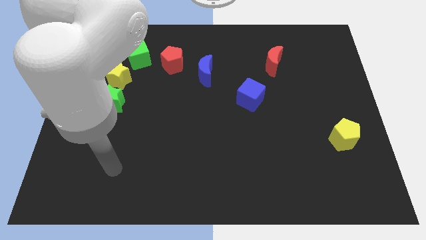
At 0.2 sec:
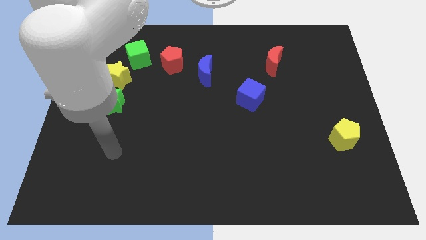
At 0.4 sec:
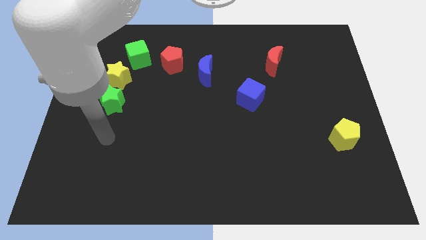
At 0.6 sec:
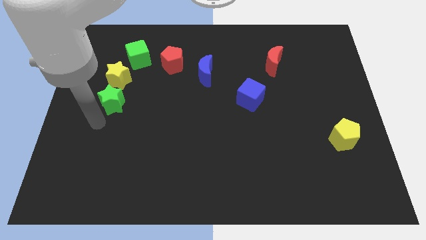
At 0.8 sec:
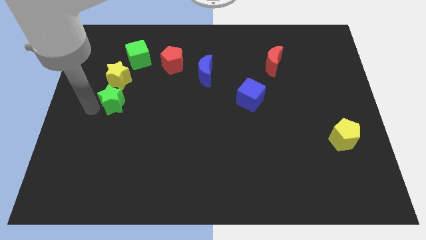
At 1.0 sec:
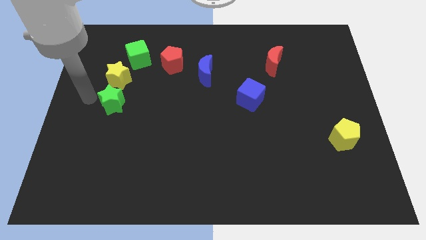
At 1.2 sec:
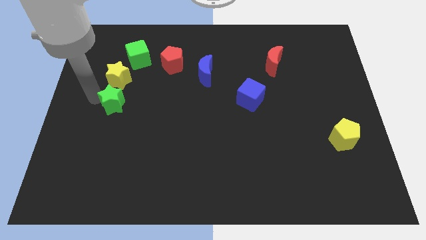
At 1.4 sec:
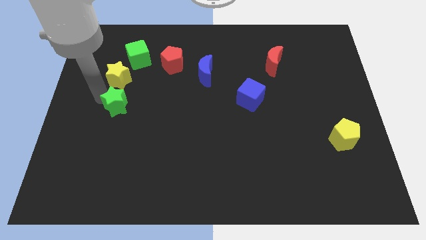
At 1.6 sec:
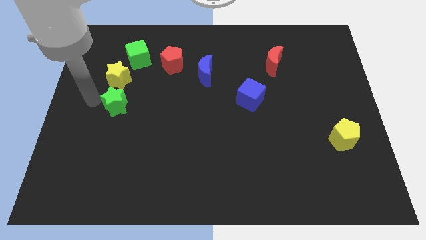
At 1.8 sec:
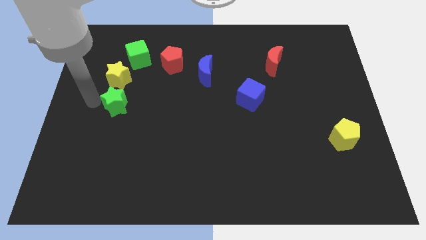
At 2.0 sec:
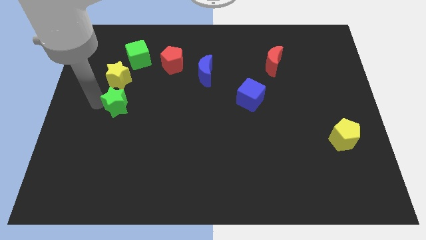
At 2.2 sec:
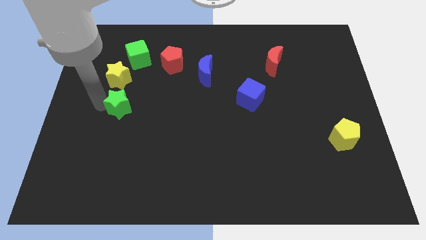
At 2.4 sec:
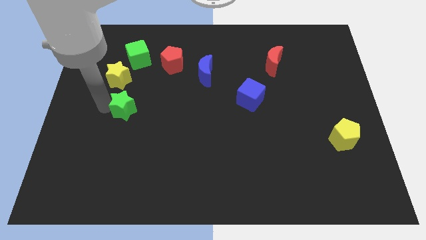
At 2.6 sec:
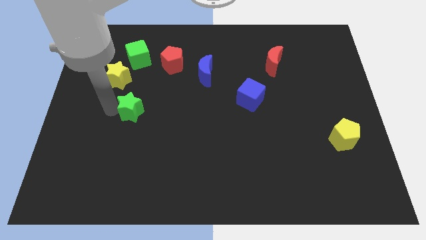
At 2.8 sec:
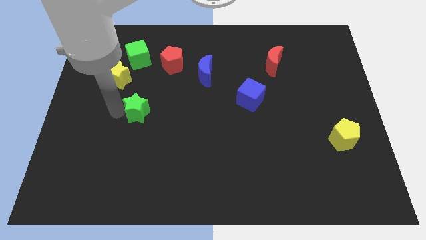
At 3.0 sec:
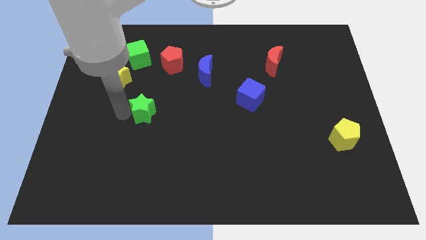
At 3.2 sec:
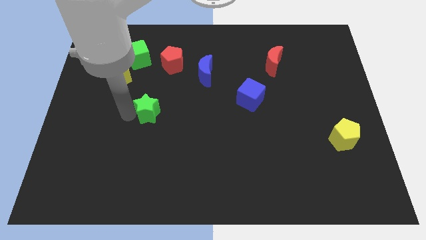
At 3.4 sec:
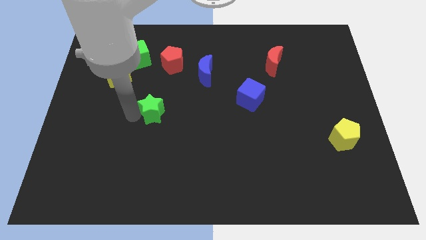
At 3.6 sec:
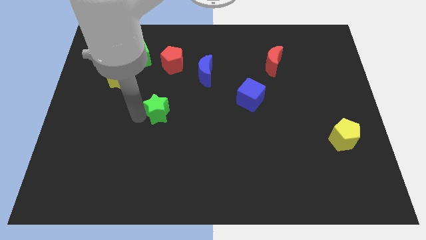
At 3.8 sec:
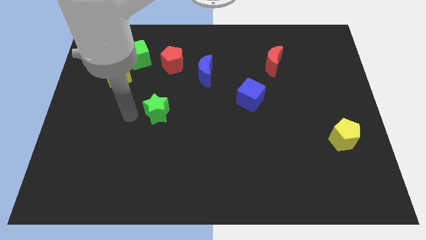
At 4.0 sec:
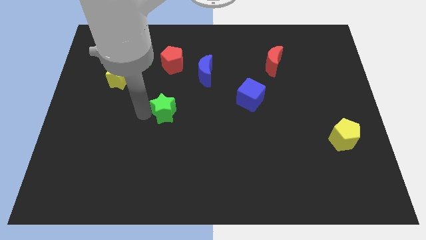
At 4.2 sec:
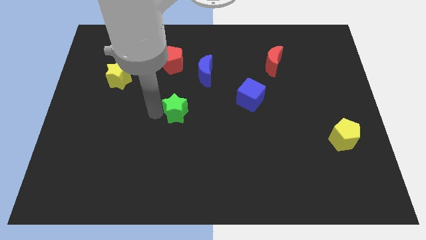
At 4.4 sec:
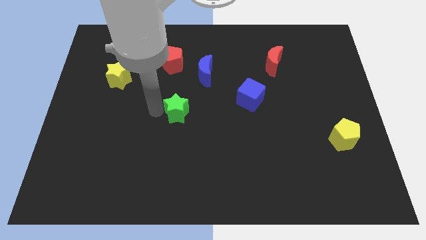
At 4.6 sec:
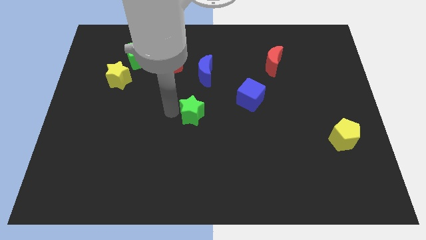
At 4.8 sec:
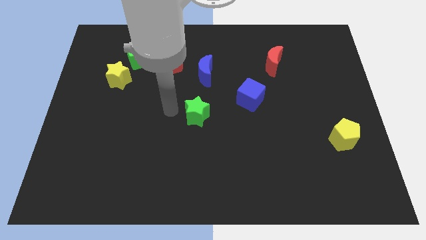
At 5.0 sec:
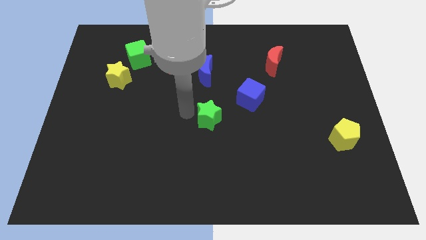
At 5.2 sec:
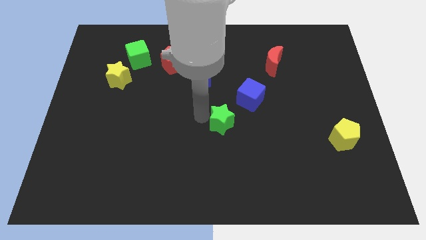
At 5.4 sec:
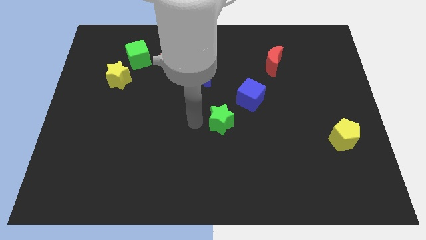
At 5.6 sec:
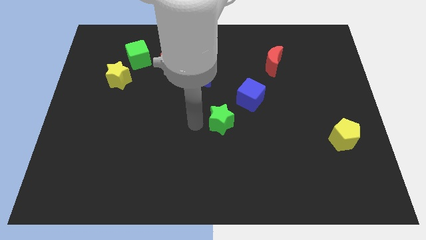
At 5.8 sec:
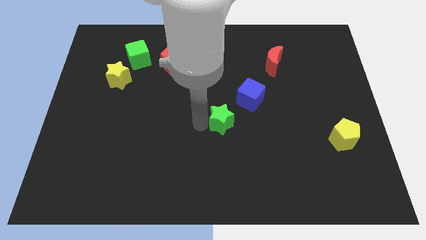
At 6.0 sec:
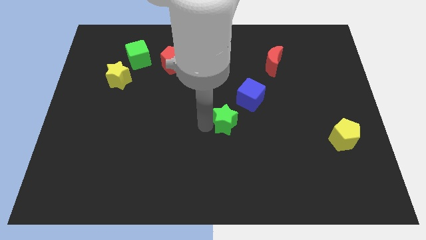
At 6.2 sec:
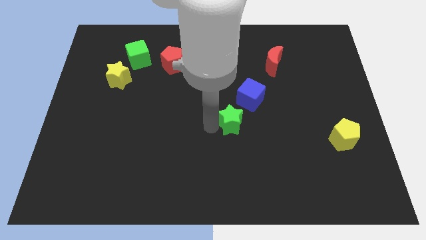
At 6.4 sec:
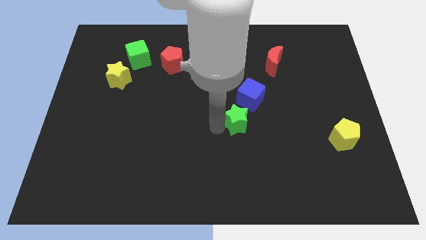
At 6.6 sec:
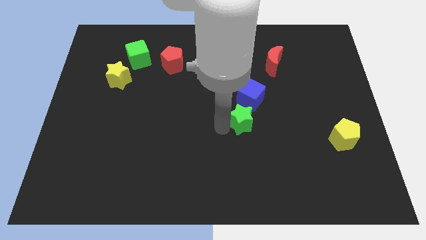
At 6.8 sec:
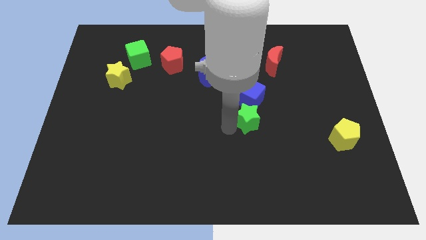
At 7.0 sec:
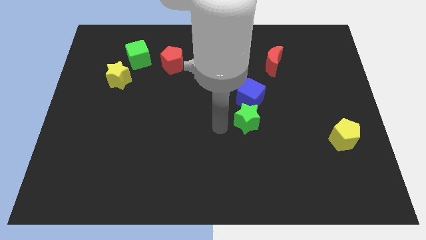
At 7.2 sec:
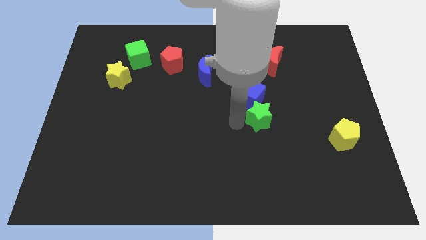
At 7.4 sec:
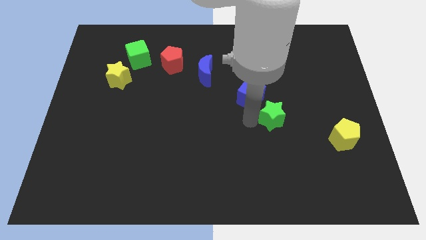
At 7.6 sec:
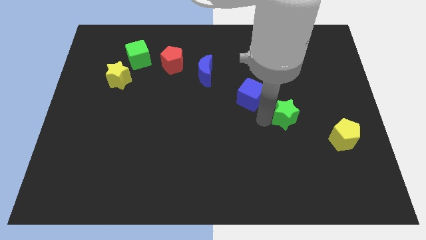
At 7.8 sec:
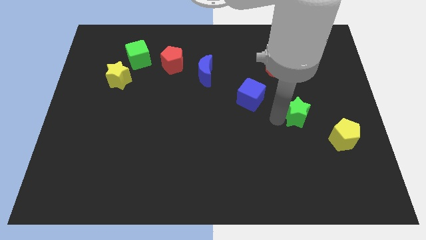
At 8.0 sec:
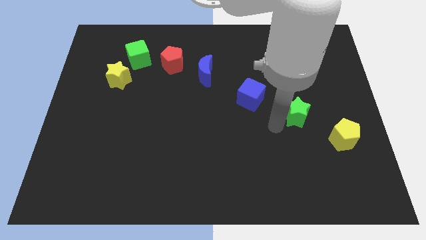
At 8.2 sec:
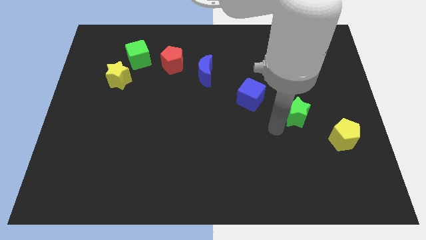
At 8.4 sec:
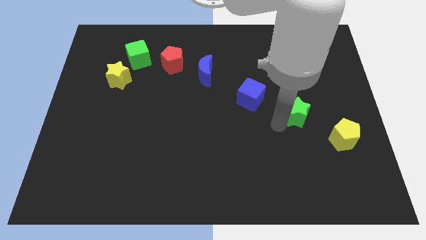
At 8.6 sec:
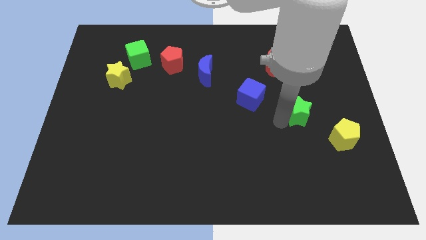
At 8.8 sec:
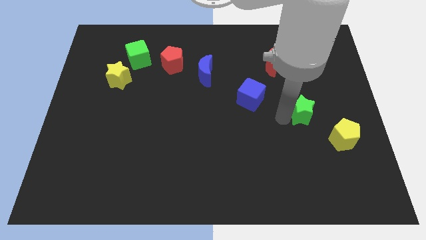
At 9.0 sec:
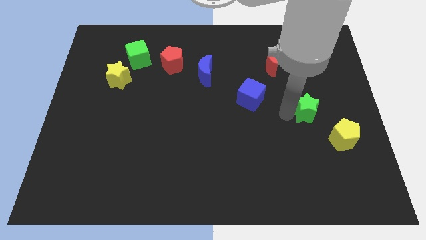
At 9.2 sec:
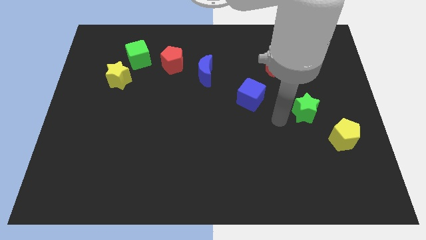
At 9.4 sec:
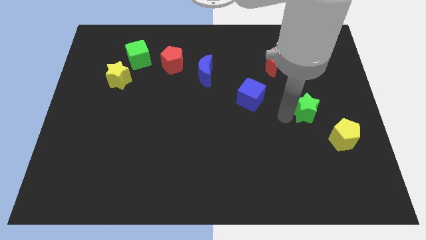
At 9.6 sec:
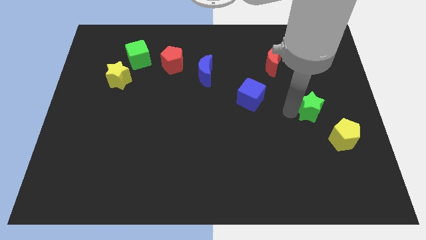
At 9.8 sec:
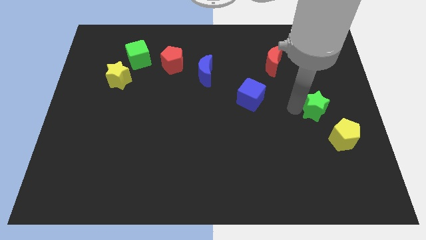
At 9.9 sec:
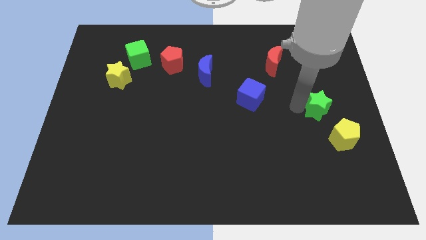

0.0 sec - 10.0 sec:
slide the green star above the yellow pentagon

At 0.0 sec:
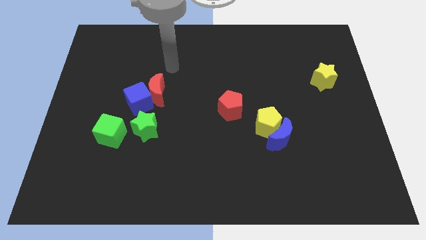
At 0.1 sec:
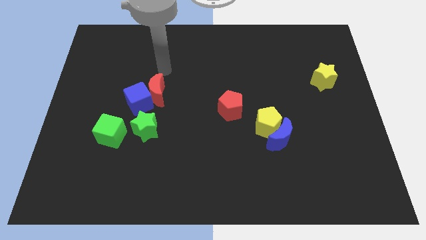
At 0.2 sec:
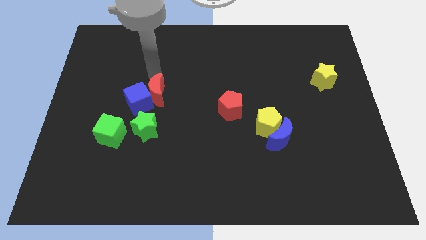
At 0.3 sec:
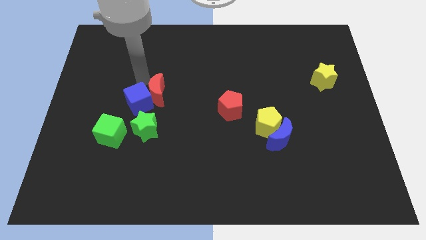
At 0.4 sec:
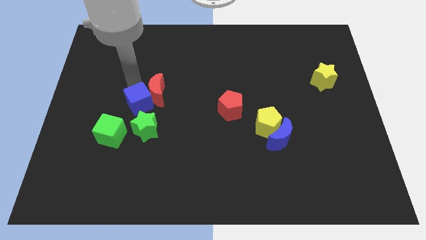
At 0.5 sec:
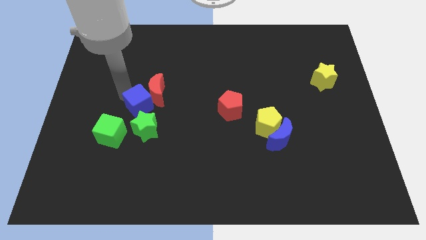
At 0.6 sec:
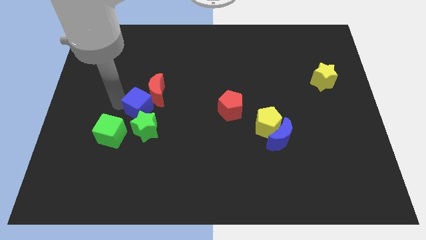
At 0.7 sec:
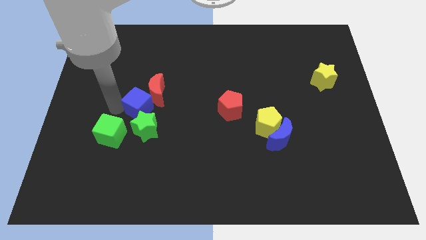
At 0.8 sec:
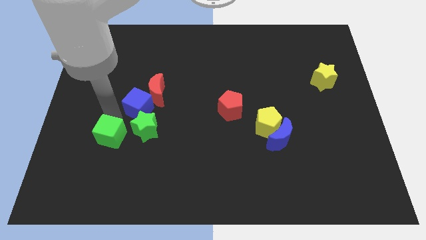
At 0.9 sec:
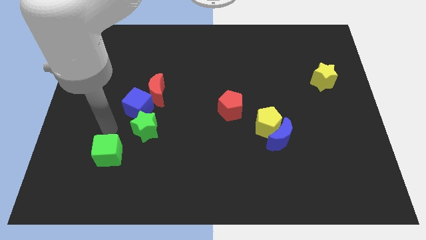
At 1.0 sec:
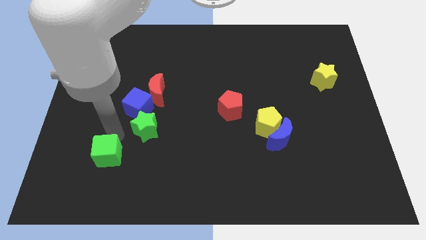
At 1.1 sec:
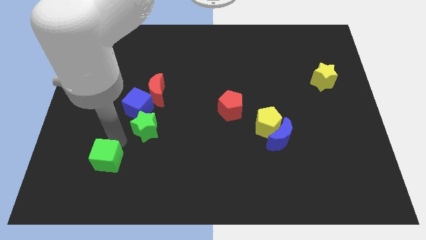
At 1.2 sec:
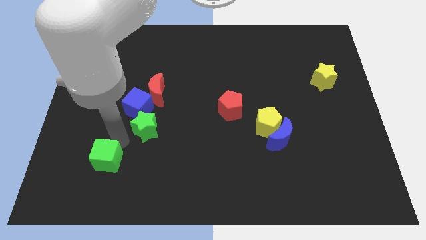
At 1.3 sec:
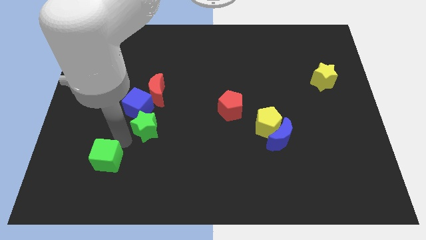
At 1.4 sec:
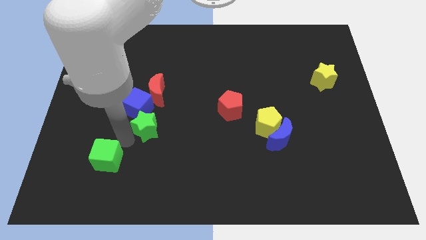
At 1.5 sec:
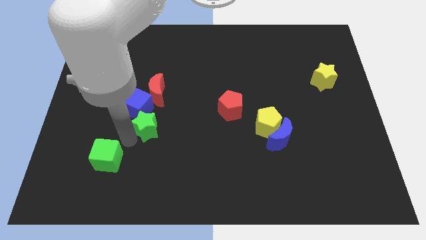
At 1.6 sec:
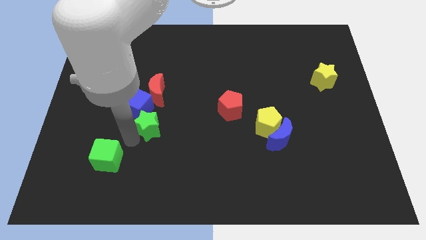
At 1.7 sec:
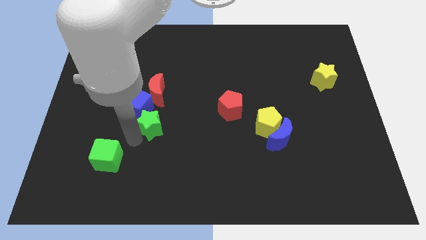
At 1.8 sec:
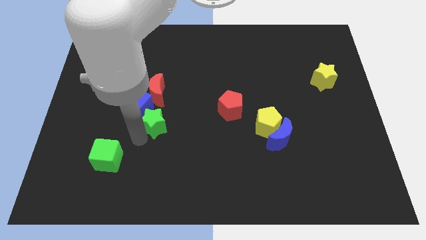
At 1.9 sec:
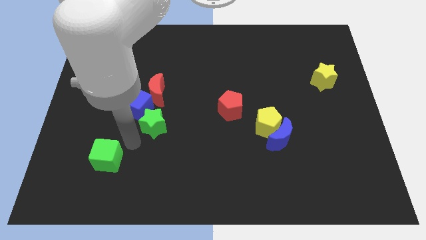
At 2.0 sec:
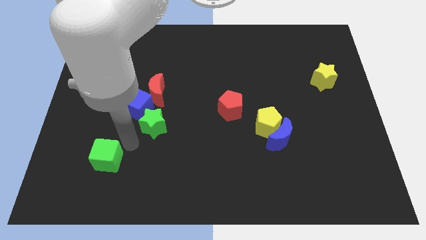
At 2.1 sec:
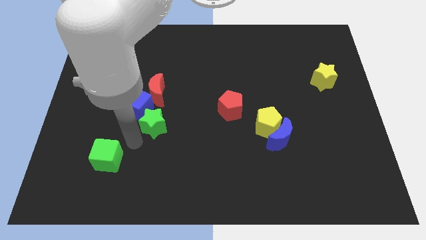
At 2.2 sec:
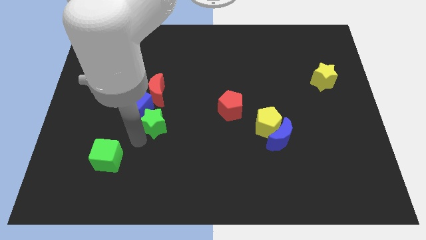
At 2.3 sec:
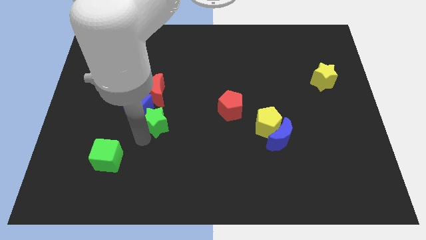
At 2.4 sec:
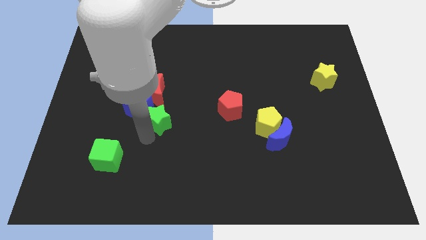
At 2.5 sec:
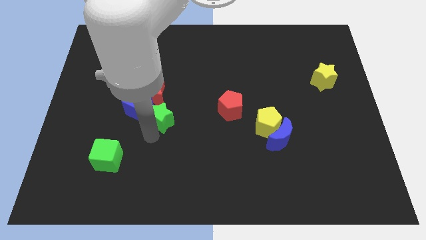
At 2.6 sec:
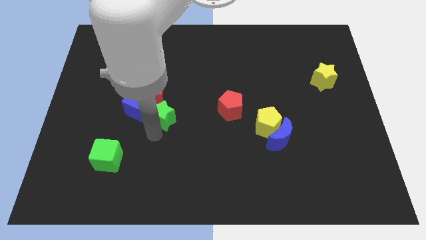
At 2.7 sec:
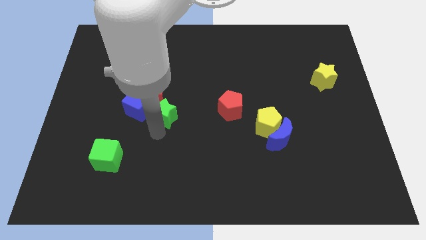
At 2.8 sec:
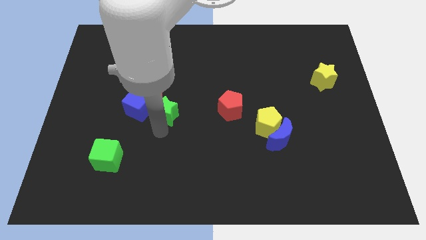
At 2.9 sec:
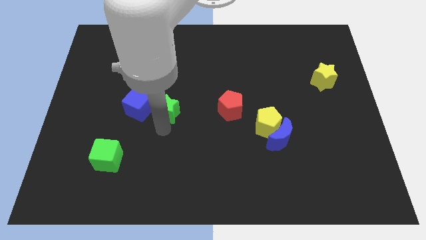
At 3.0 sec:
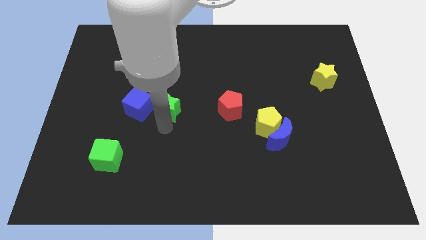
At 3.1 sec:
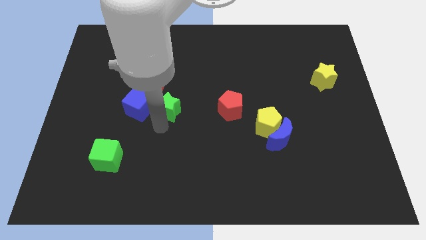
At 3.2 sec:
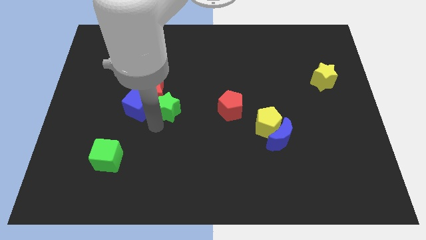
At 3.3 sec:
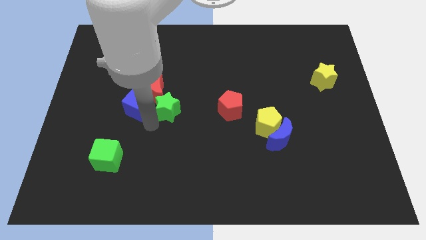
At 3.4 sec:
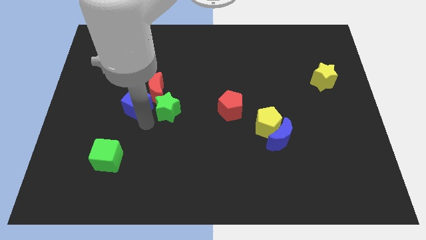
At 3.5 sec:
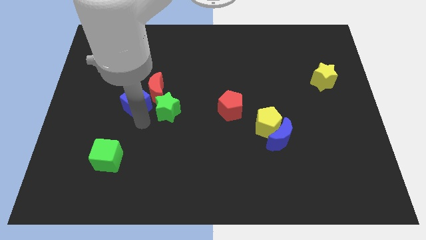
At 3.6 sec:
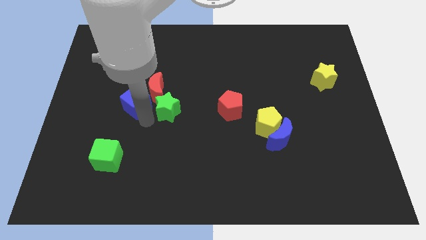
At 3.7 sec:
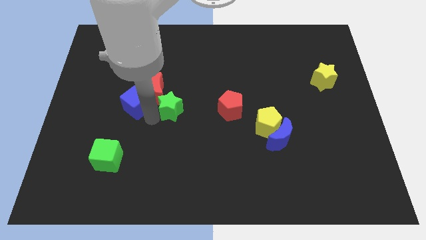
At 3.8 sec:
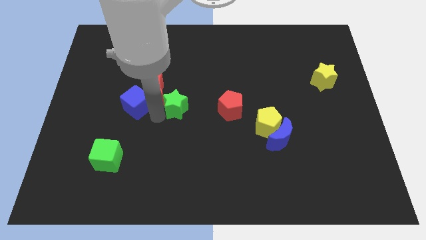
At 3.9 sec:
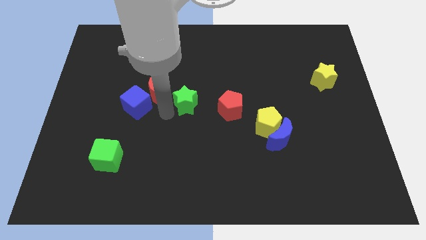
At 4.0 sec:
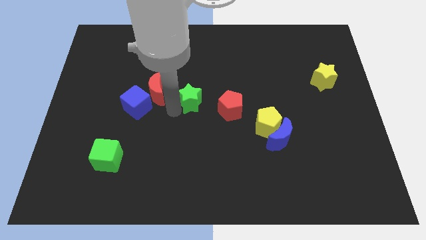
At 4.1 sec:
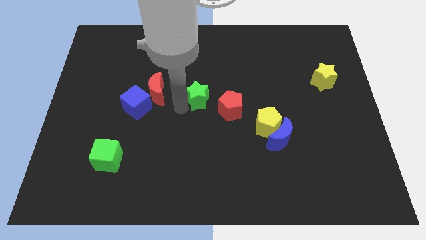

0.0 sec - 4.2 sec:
slide the green star to the top left of the red pentagon
